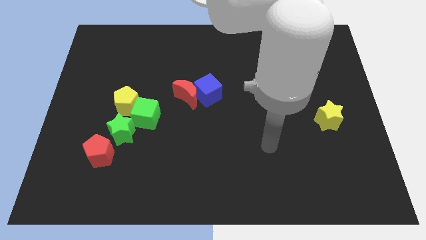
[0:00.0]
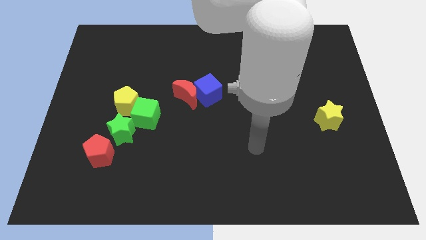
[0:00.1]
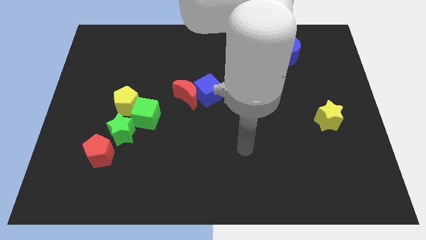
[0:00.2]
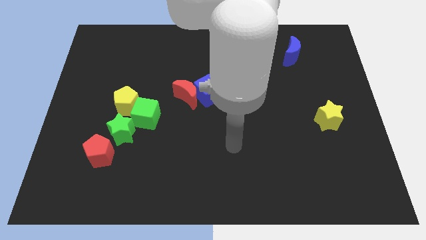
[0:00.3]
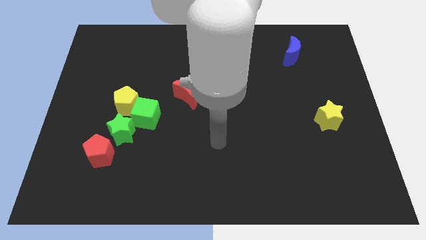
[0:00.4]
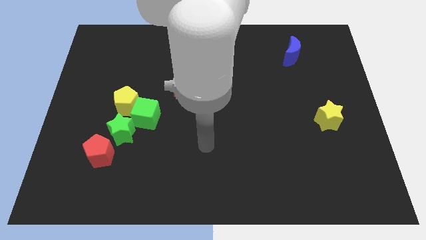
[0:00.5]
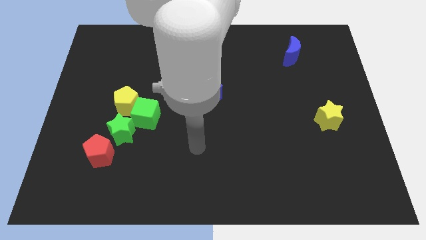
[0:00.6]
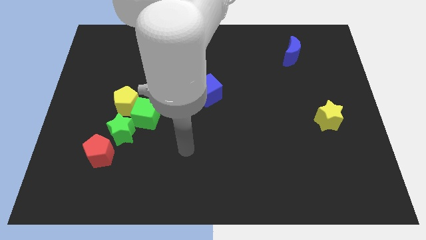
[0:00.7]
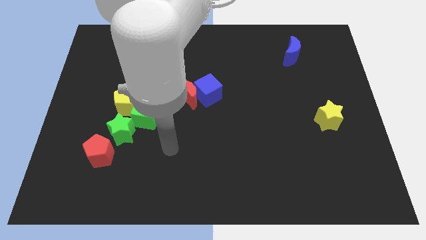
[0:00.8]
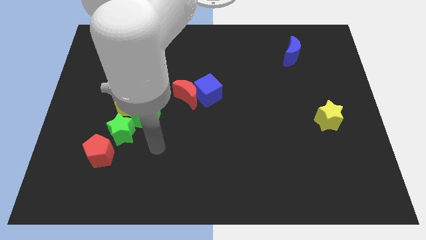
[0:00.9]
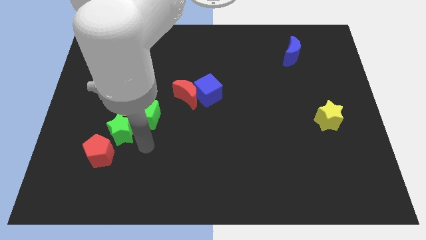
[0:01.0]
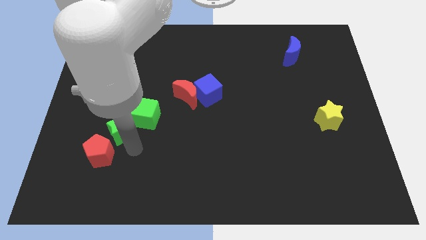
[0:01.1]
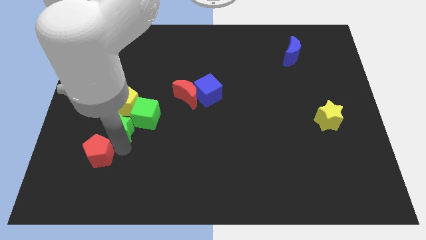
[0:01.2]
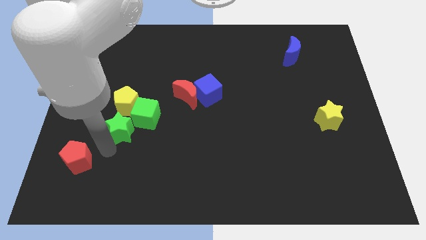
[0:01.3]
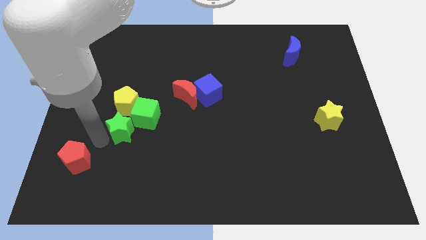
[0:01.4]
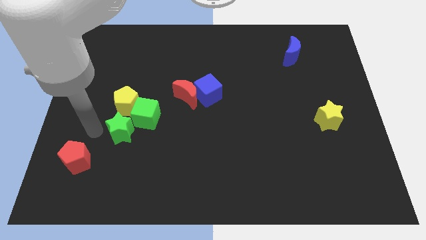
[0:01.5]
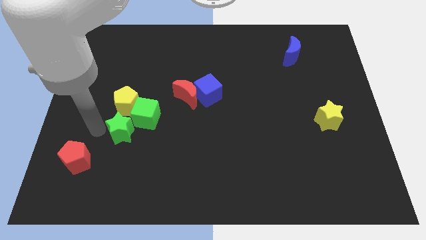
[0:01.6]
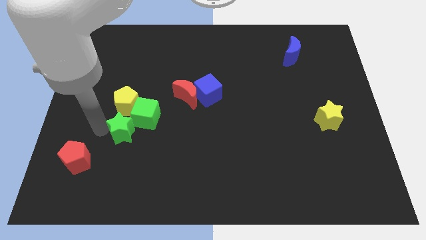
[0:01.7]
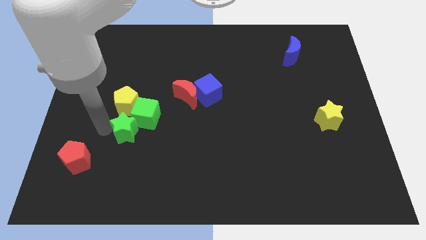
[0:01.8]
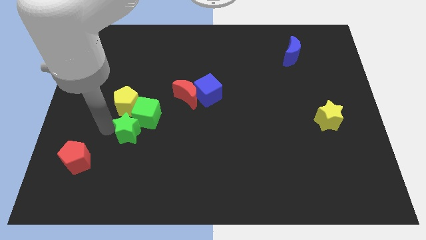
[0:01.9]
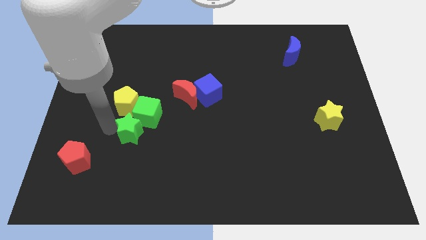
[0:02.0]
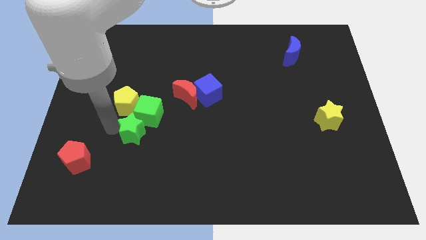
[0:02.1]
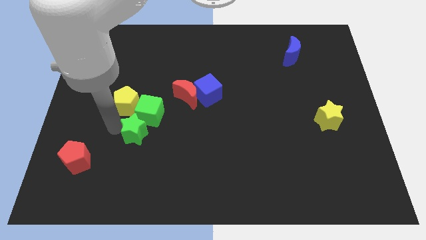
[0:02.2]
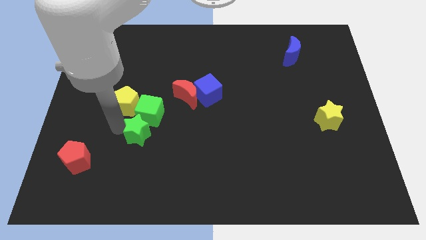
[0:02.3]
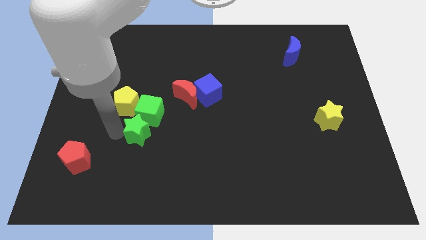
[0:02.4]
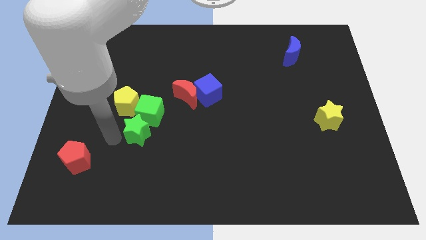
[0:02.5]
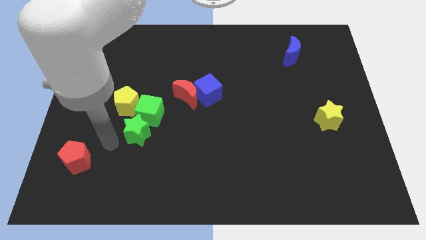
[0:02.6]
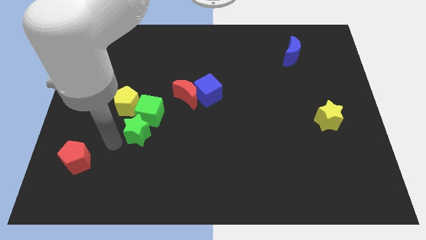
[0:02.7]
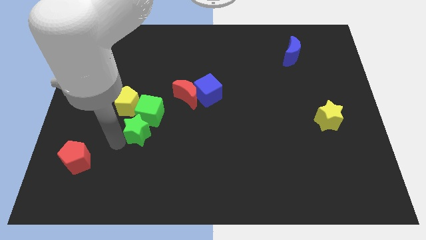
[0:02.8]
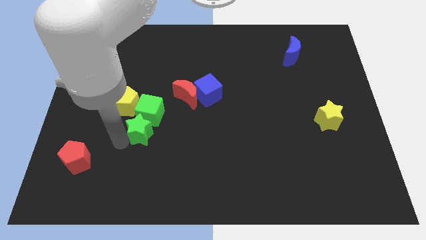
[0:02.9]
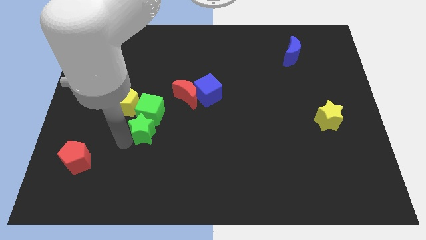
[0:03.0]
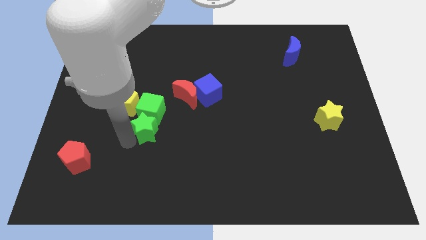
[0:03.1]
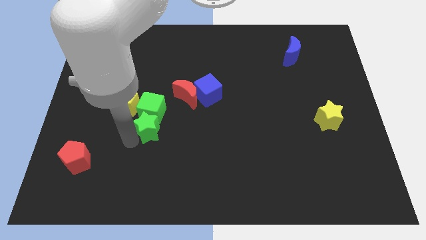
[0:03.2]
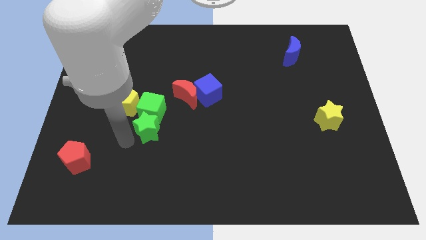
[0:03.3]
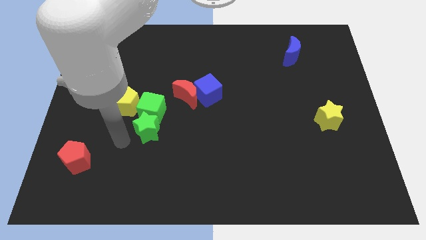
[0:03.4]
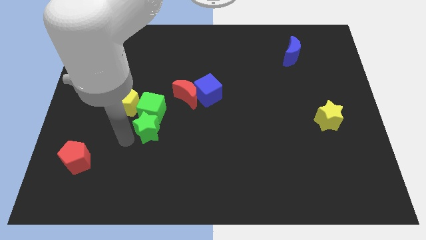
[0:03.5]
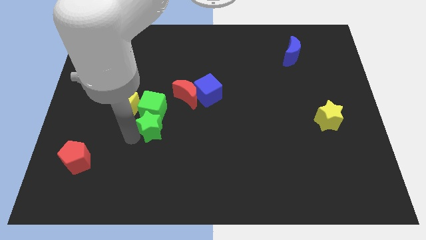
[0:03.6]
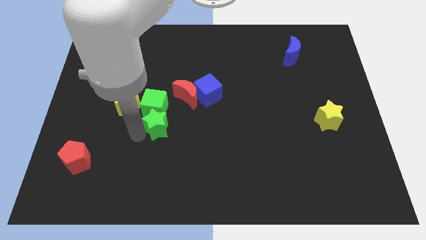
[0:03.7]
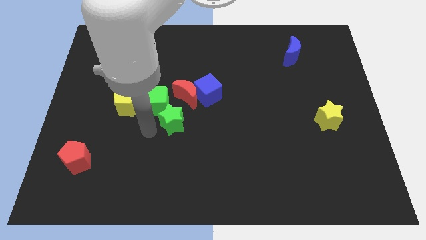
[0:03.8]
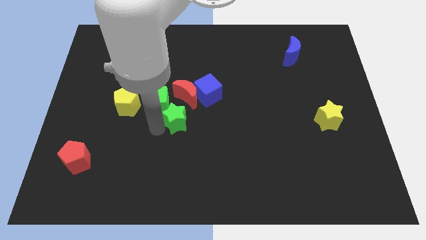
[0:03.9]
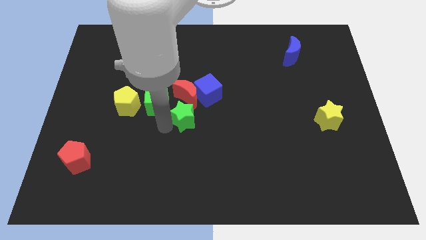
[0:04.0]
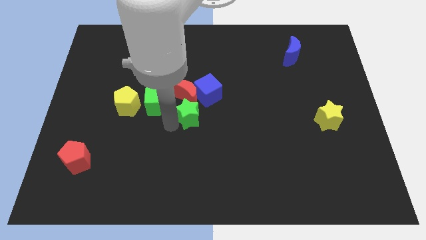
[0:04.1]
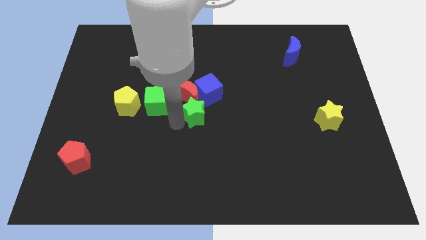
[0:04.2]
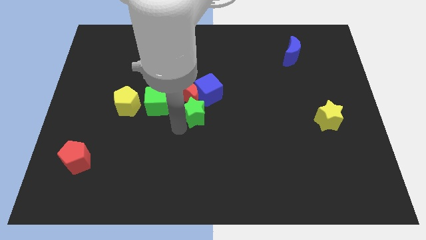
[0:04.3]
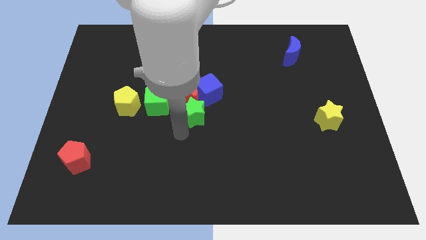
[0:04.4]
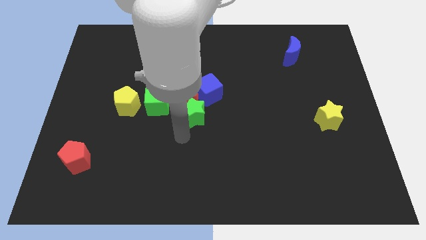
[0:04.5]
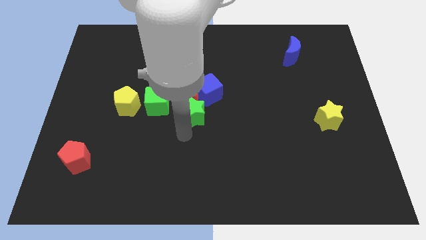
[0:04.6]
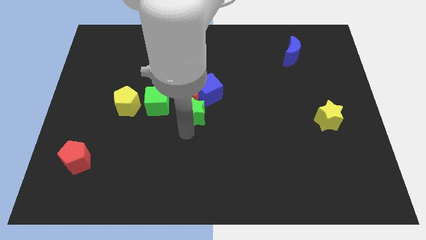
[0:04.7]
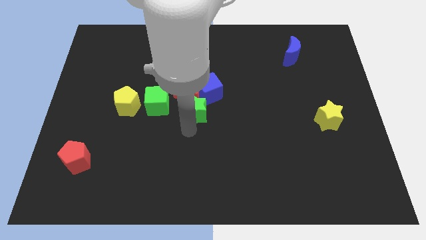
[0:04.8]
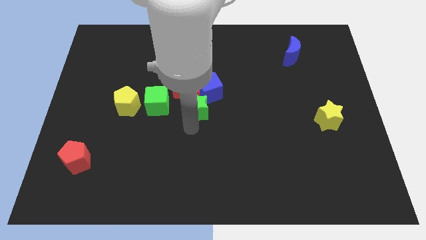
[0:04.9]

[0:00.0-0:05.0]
slide the green star towards the blue cube

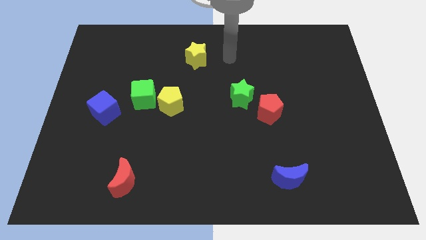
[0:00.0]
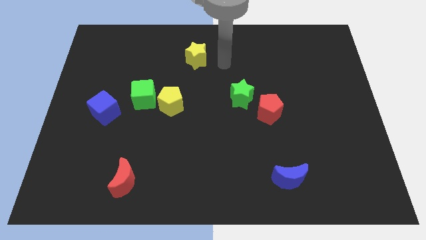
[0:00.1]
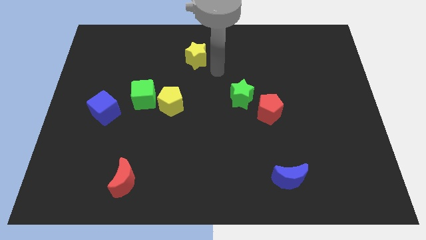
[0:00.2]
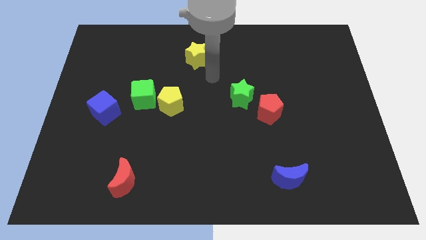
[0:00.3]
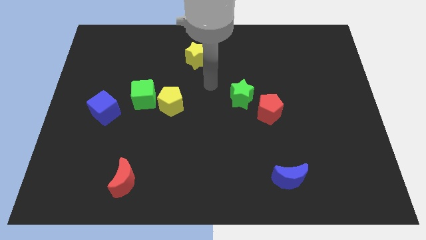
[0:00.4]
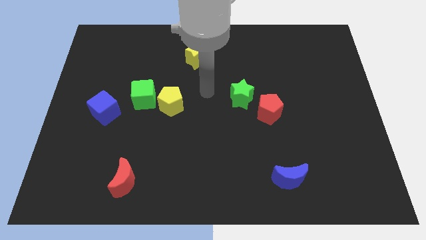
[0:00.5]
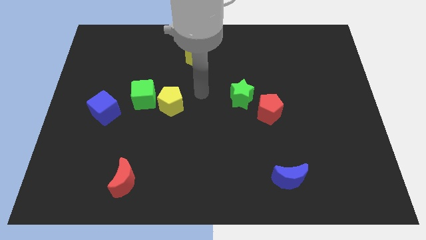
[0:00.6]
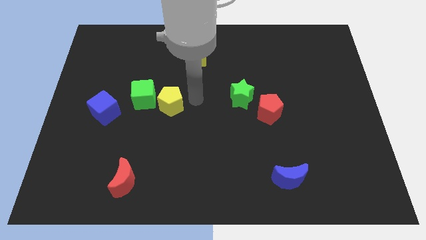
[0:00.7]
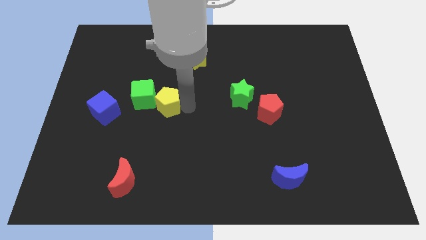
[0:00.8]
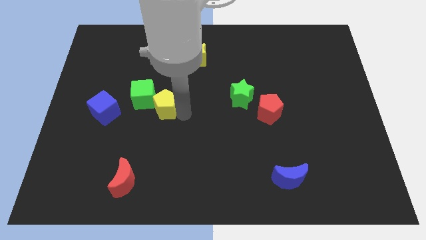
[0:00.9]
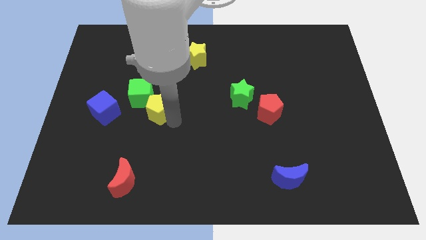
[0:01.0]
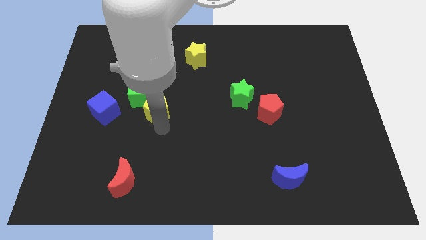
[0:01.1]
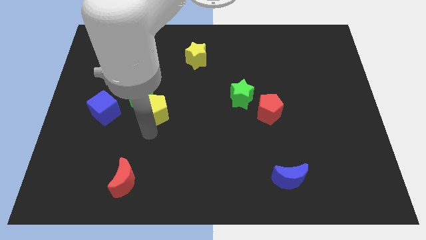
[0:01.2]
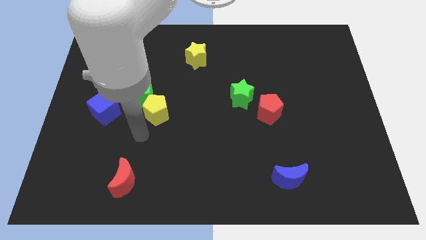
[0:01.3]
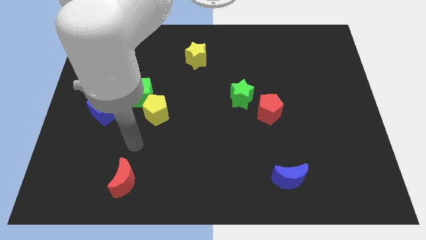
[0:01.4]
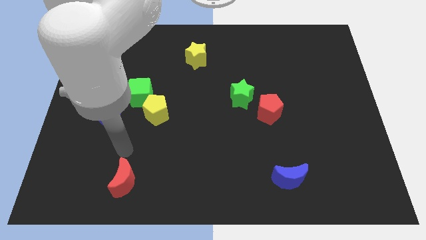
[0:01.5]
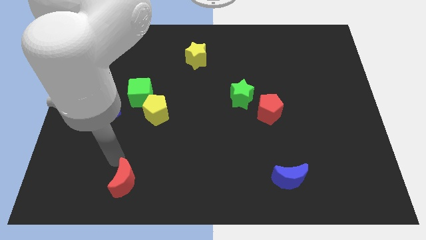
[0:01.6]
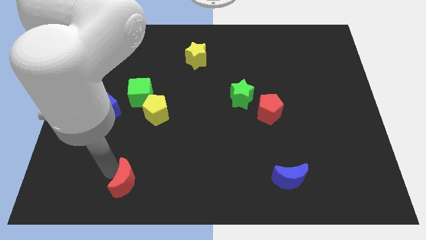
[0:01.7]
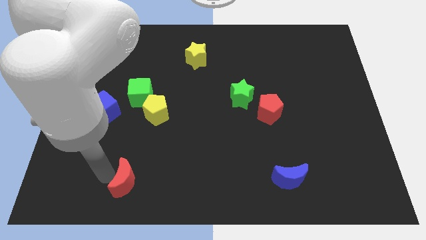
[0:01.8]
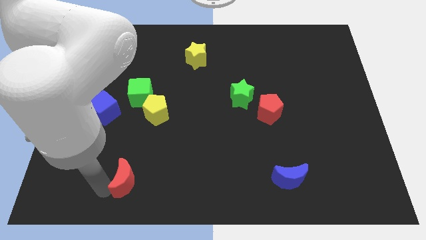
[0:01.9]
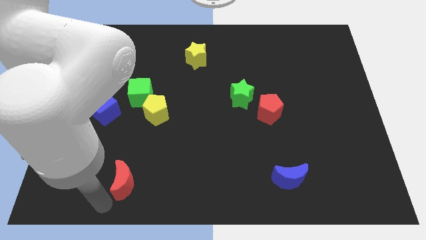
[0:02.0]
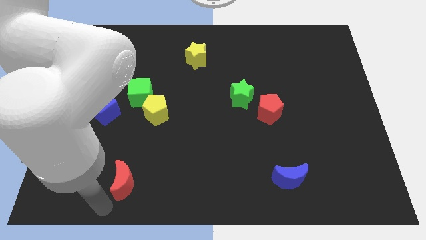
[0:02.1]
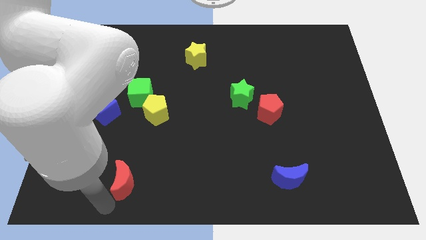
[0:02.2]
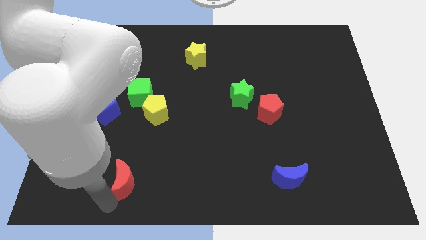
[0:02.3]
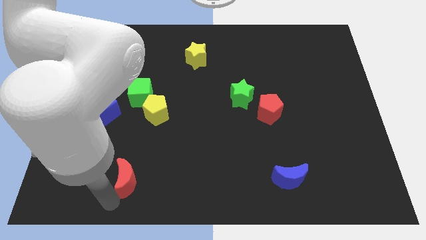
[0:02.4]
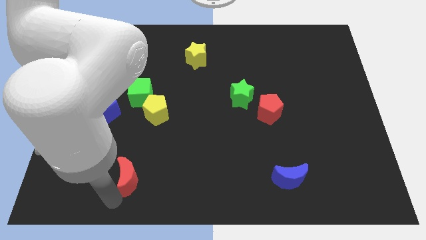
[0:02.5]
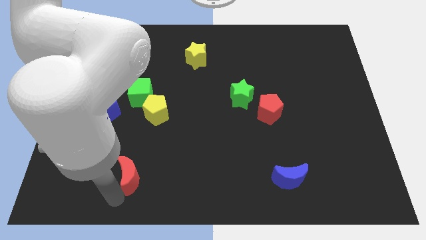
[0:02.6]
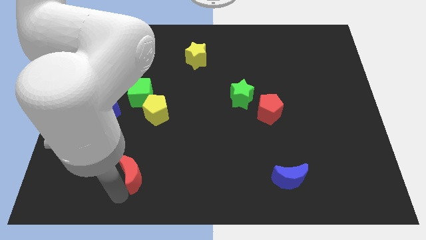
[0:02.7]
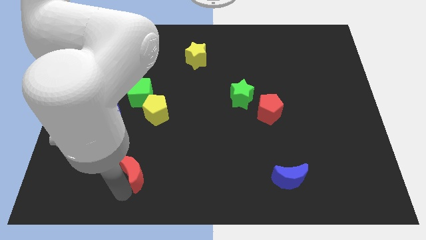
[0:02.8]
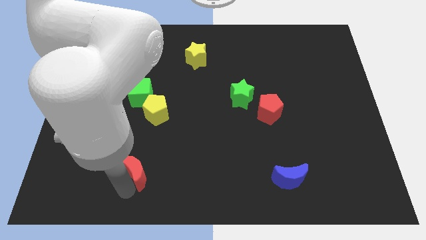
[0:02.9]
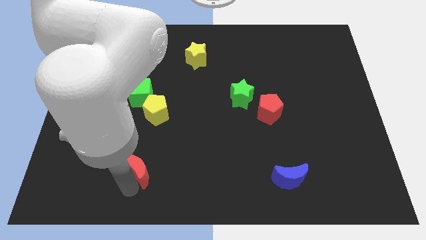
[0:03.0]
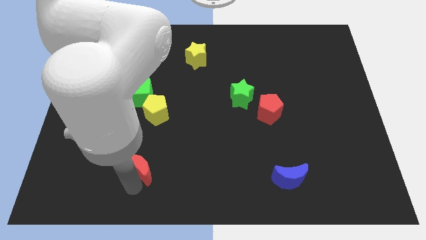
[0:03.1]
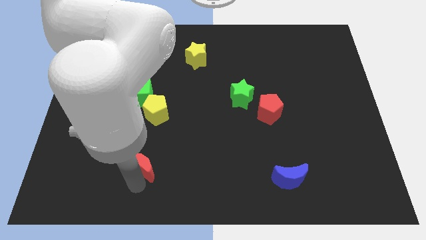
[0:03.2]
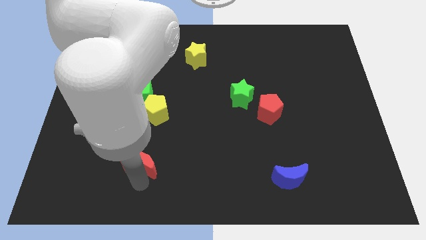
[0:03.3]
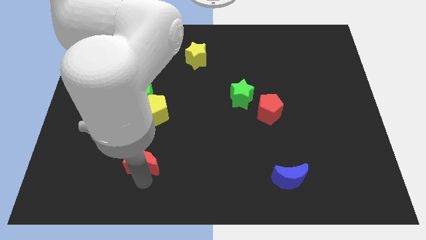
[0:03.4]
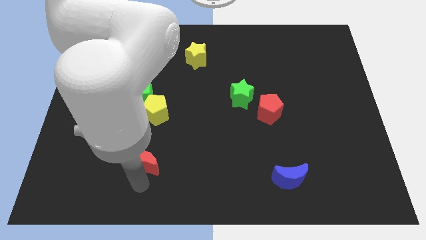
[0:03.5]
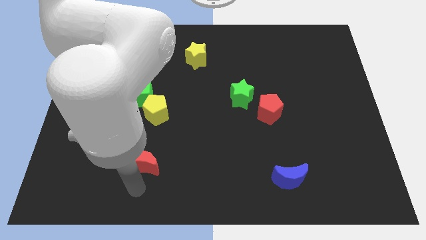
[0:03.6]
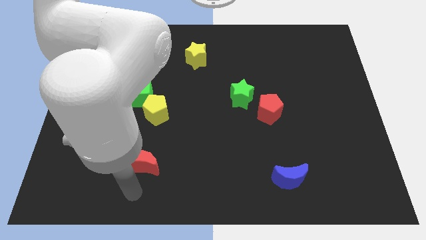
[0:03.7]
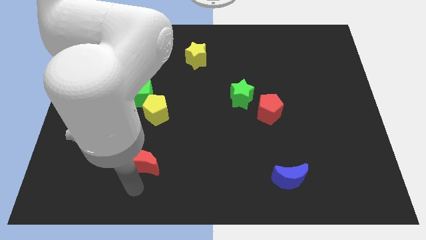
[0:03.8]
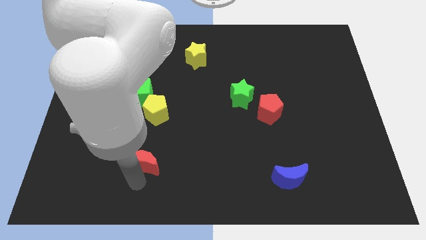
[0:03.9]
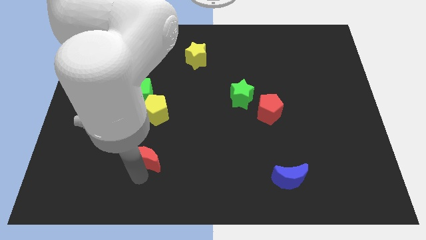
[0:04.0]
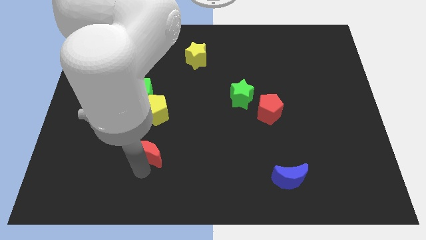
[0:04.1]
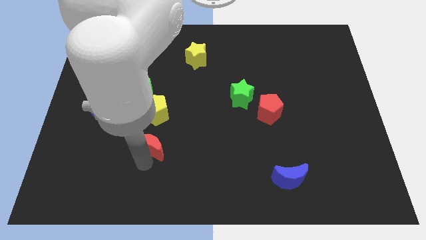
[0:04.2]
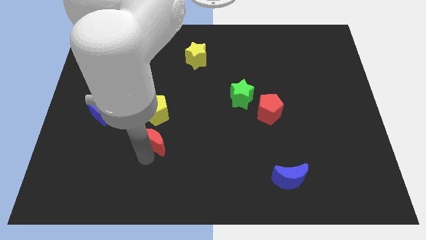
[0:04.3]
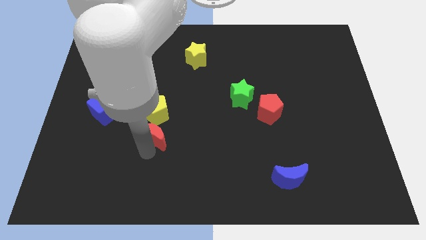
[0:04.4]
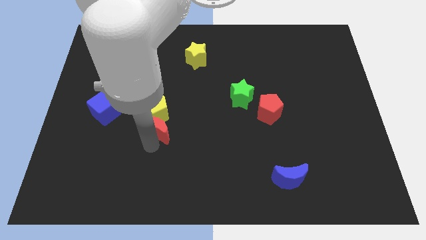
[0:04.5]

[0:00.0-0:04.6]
slide the red moon towards the yellow pentagon
